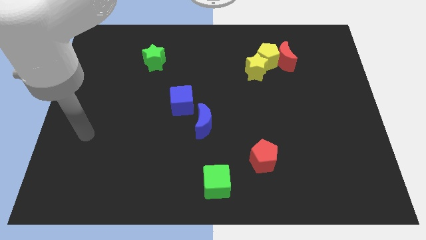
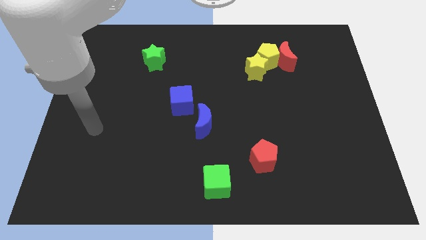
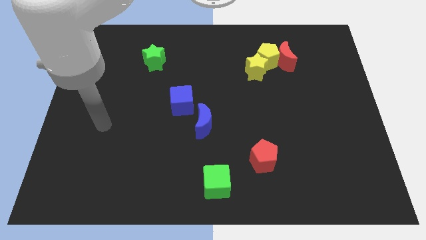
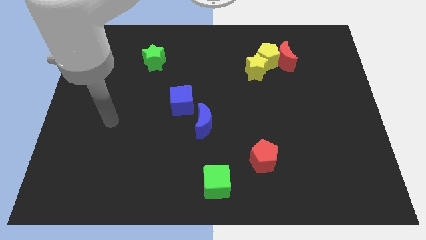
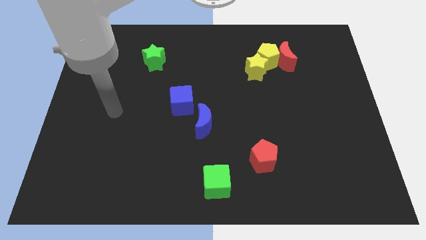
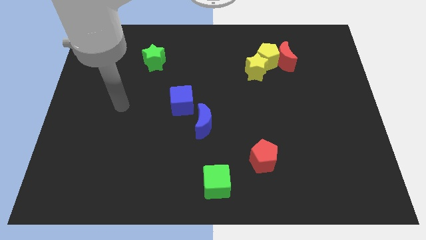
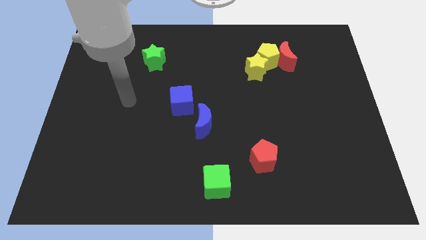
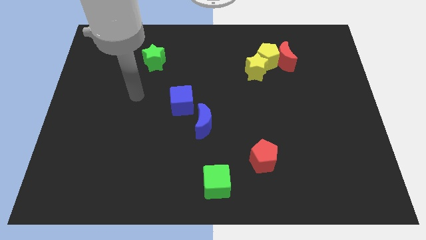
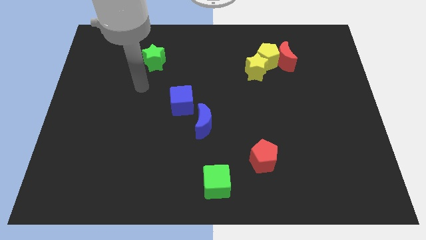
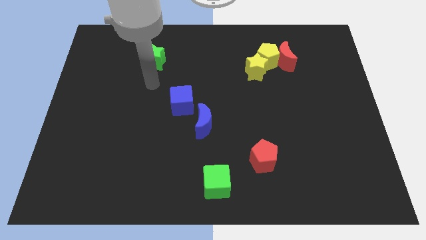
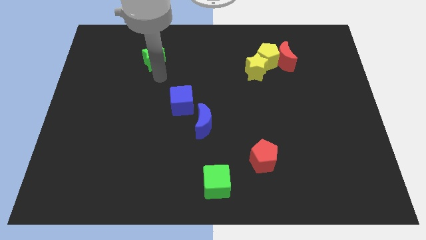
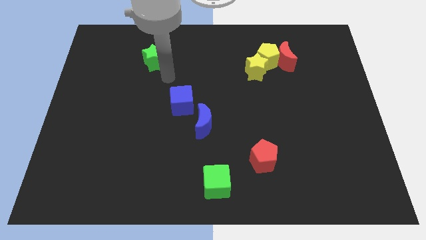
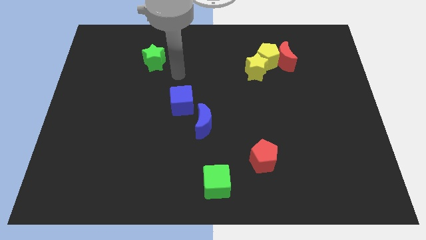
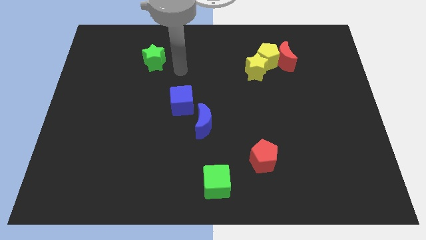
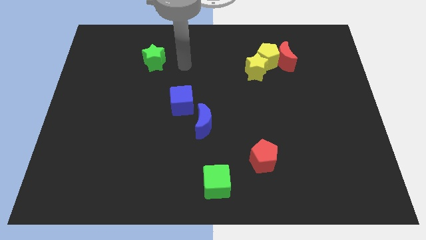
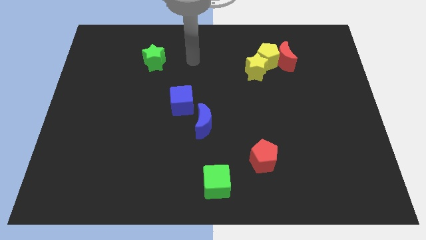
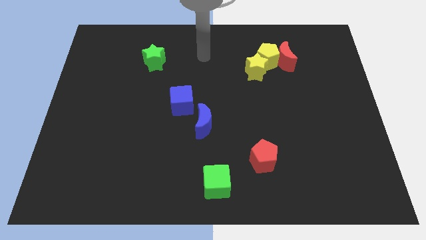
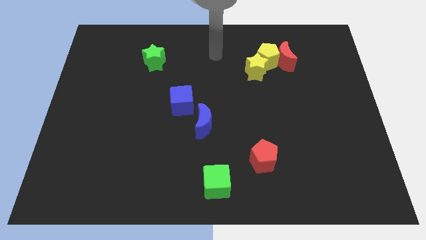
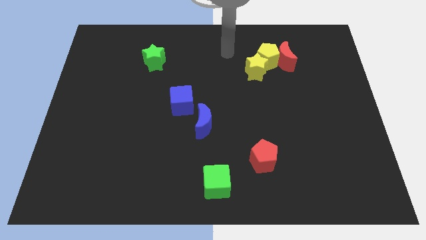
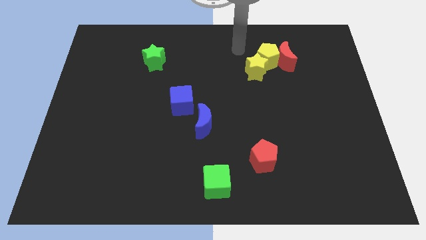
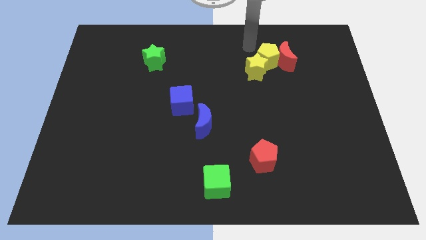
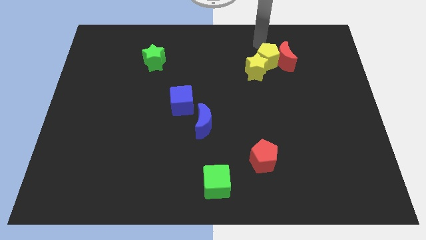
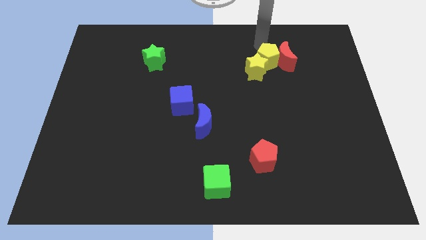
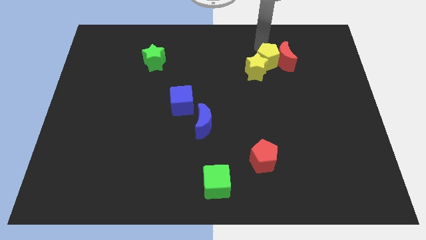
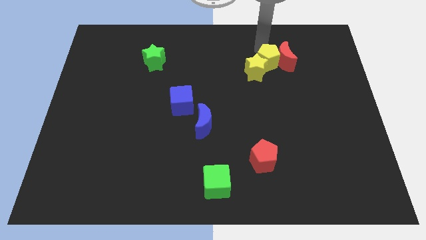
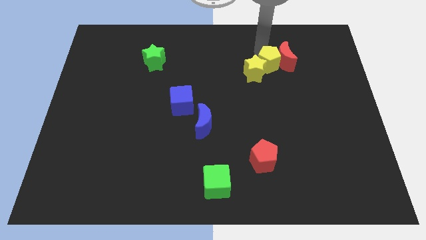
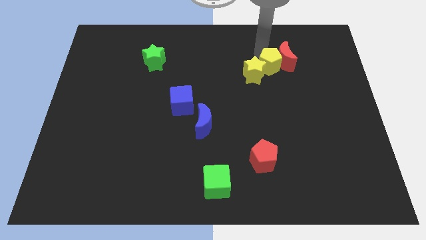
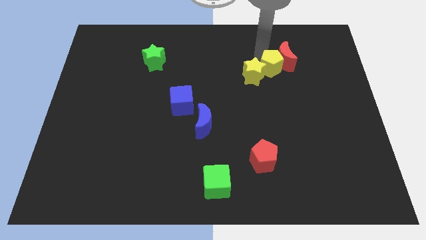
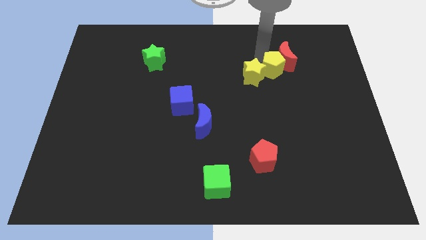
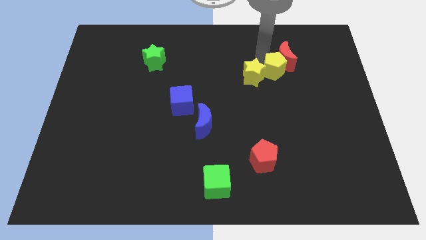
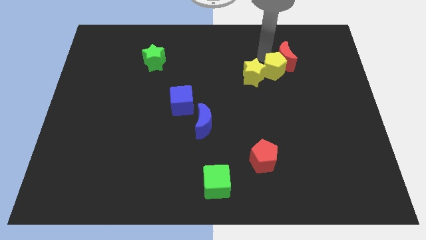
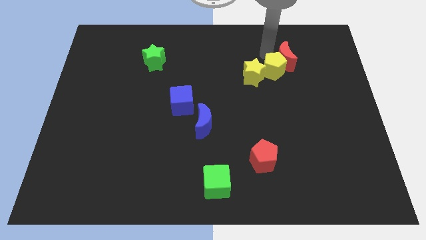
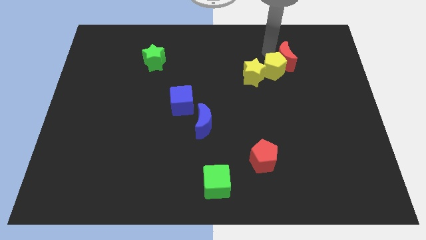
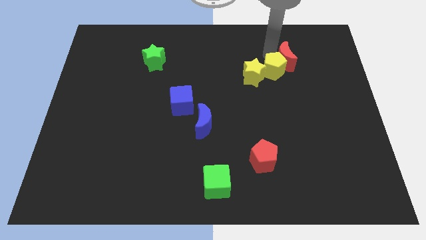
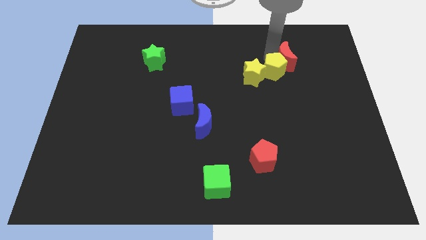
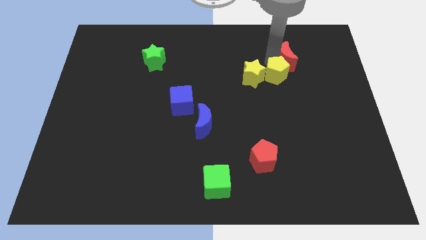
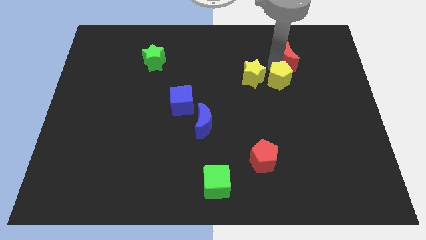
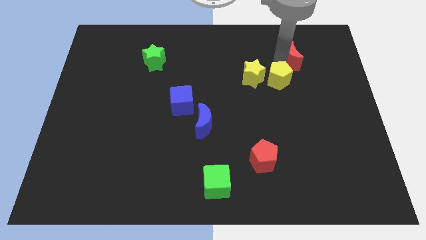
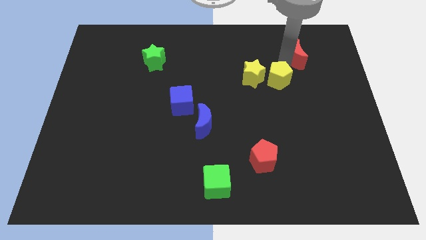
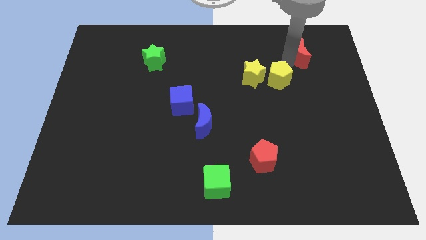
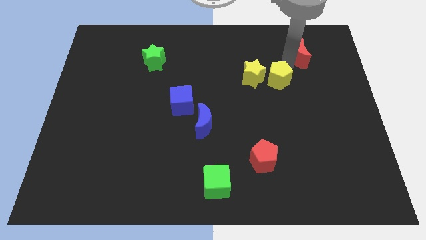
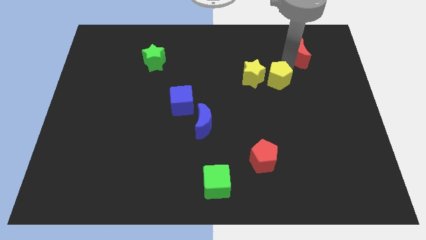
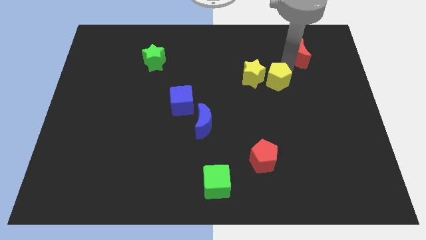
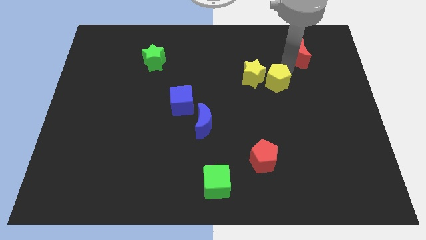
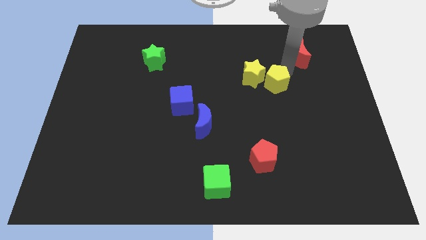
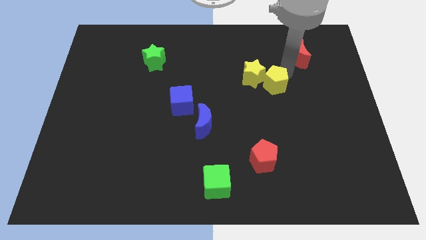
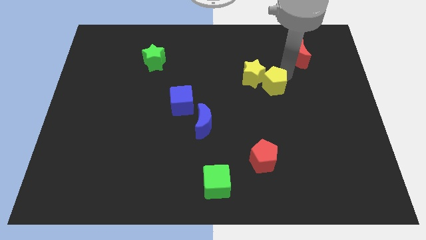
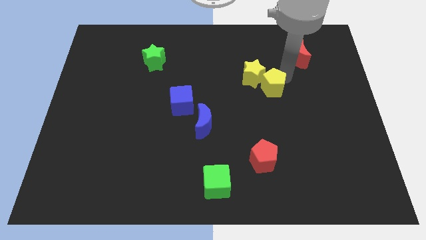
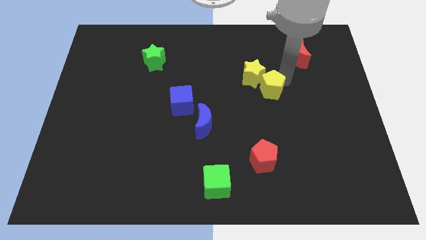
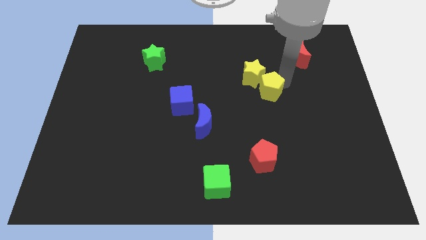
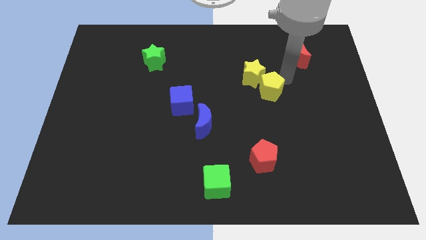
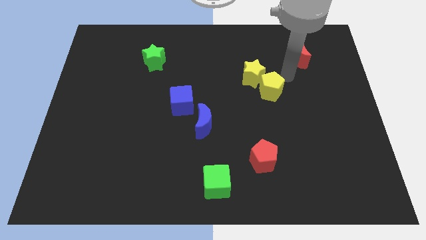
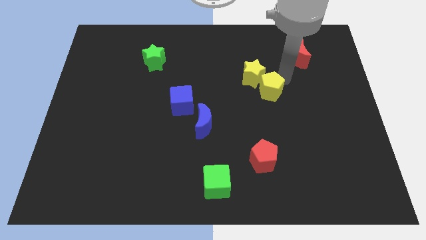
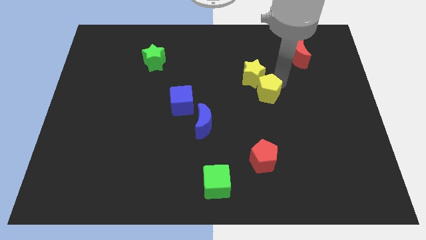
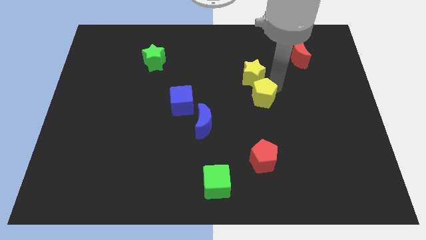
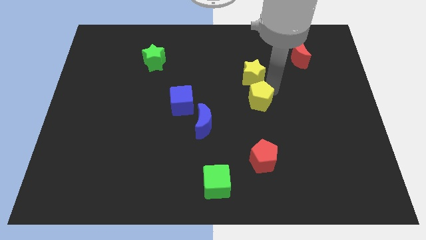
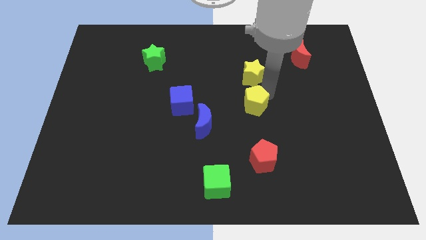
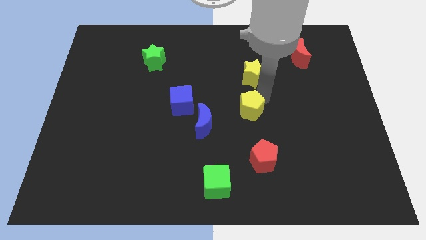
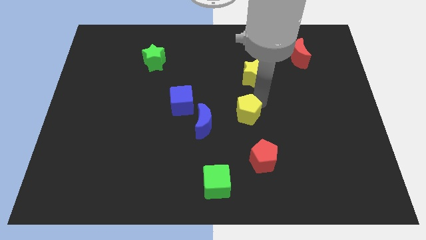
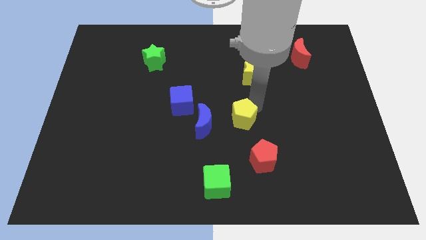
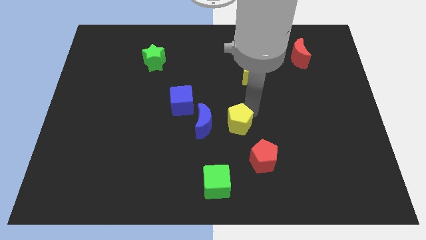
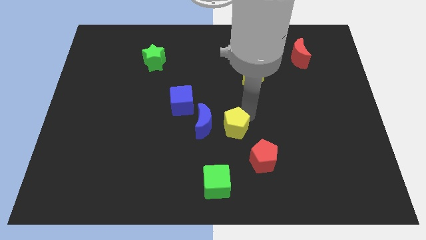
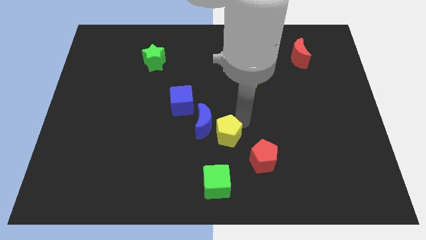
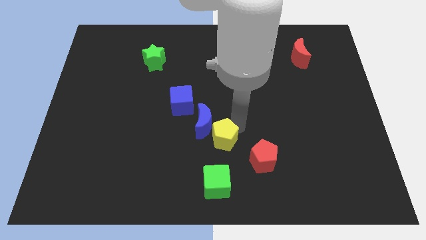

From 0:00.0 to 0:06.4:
move the yellow pentagon to the bottom side of the blue moon

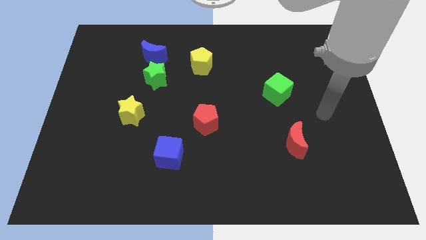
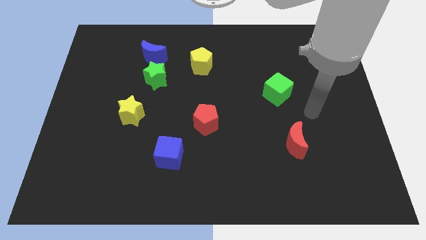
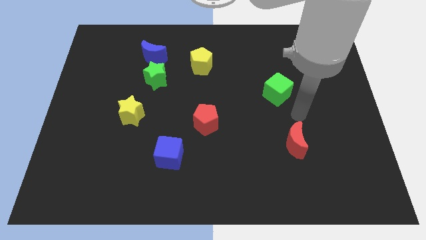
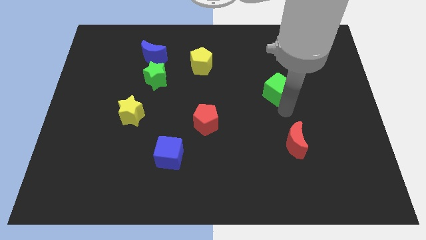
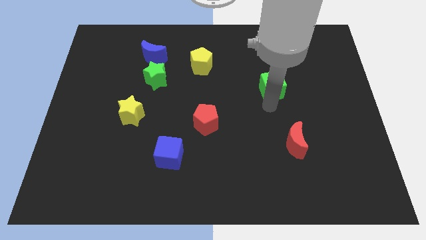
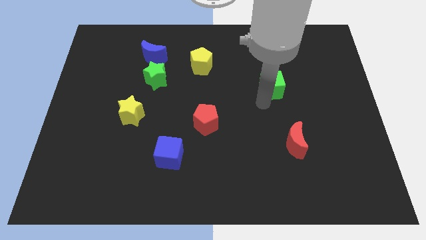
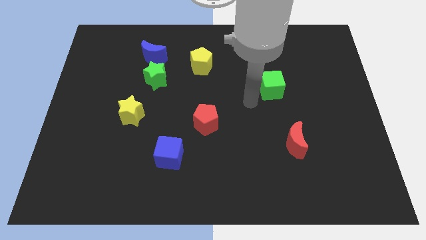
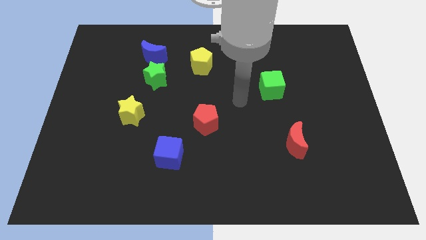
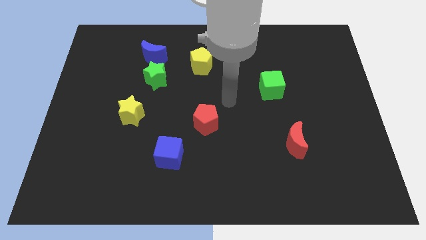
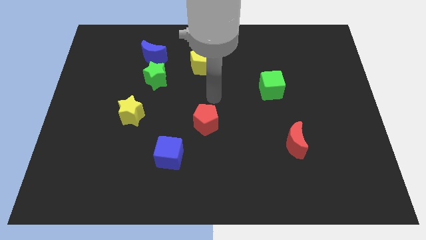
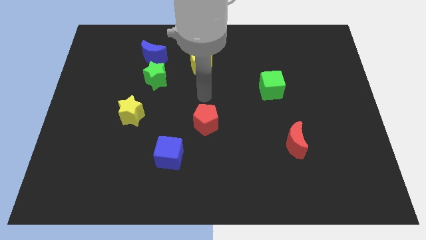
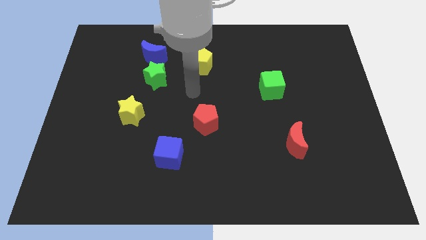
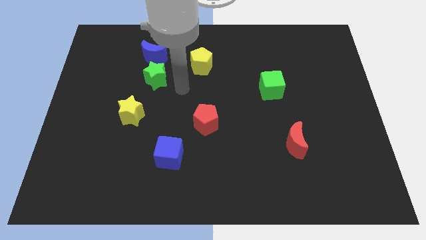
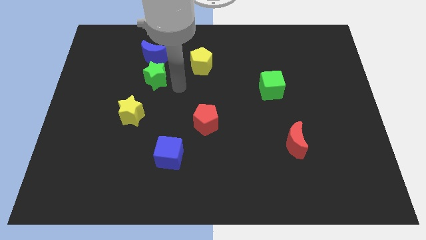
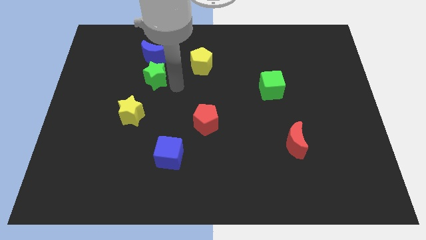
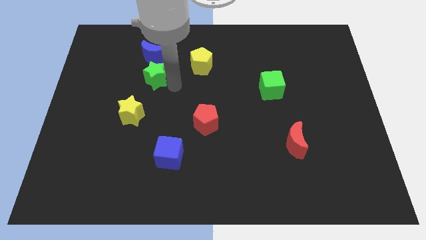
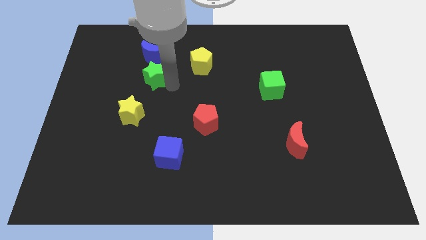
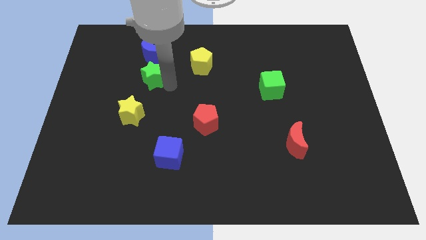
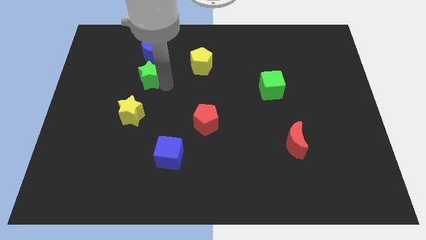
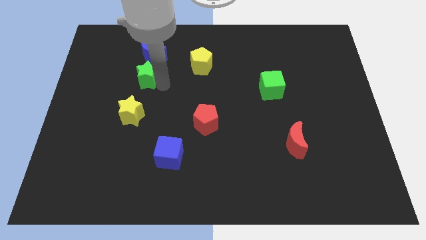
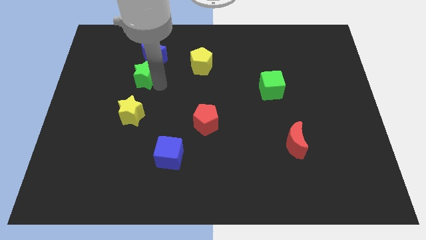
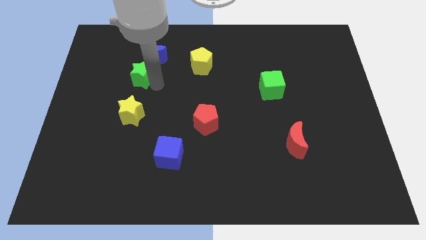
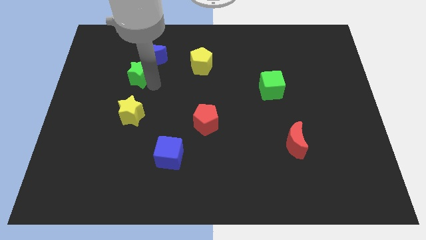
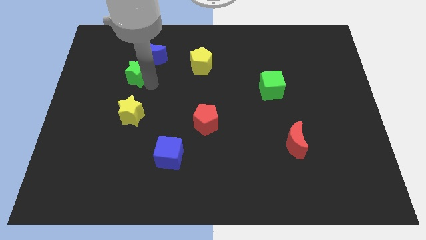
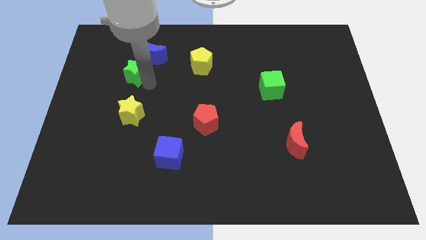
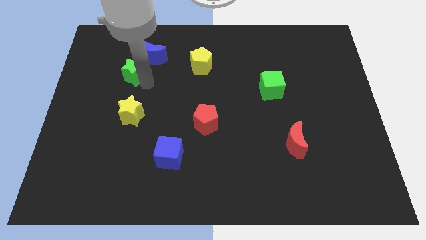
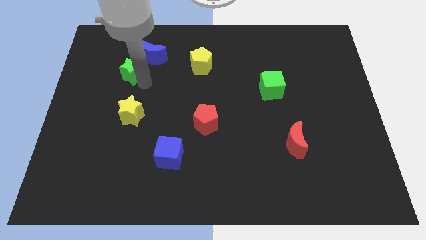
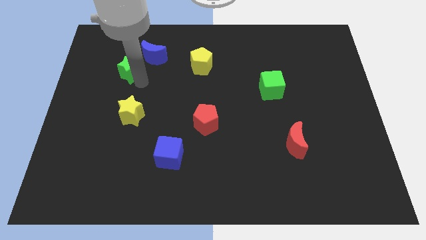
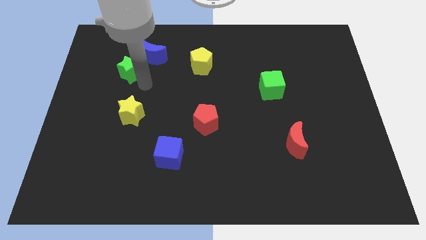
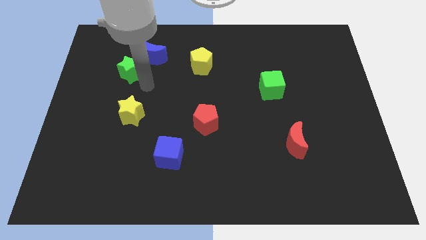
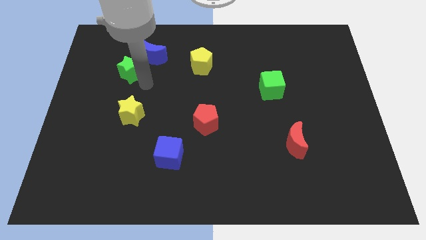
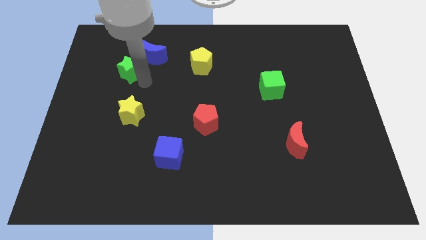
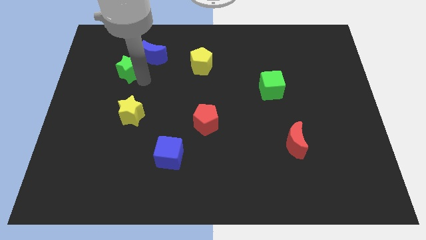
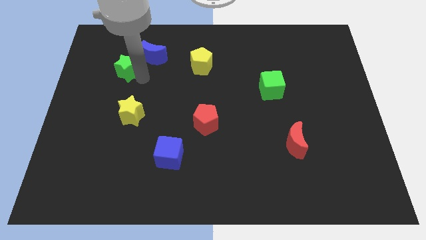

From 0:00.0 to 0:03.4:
move the green star to the left side of the blue moon
